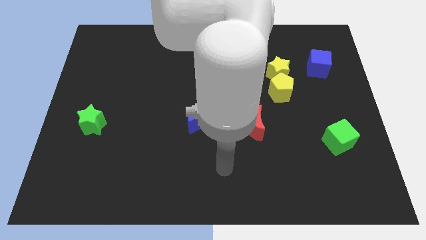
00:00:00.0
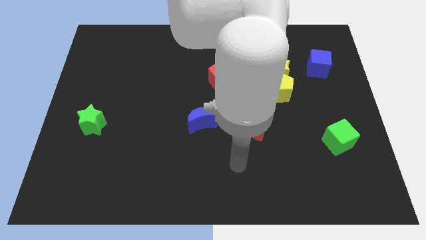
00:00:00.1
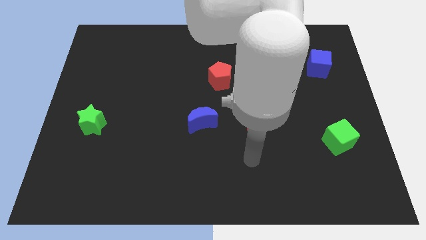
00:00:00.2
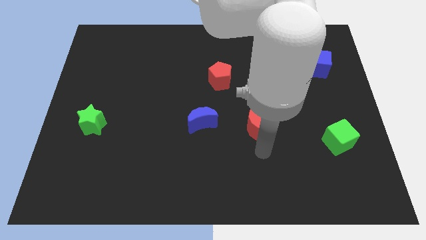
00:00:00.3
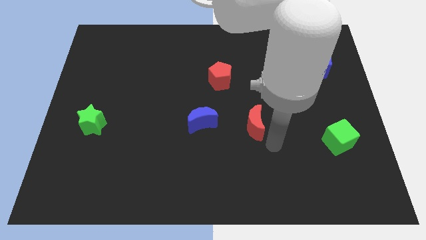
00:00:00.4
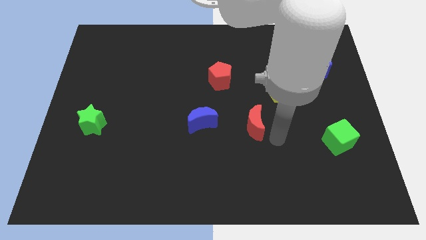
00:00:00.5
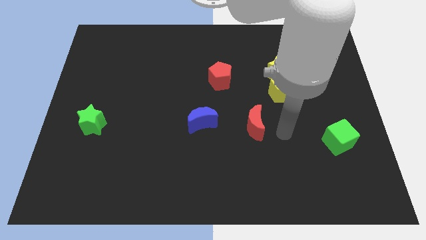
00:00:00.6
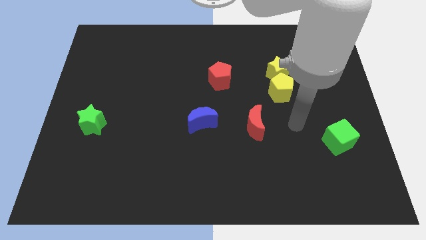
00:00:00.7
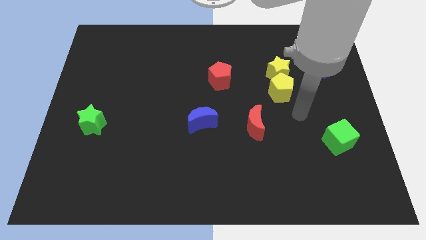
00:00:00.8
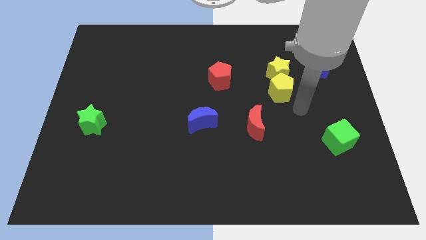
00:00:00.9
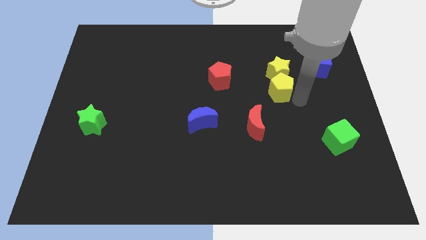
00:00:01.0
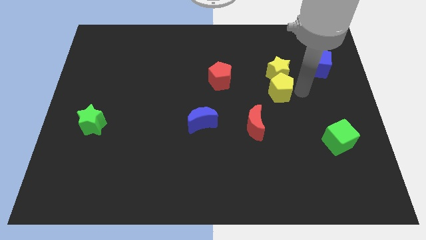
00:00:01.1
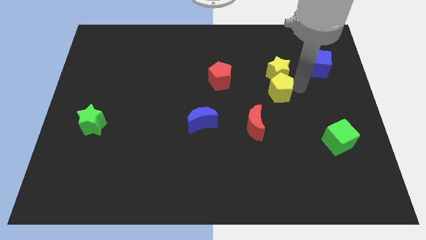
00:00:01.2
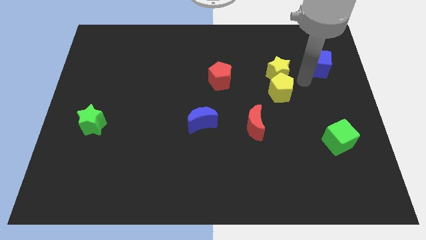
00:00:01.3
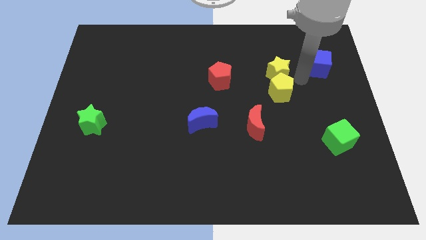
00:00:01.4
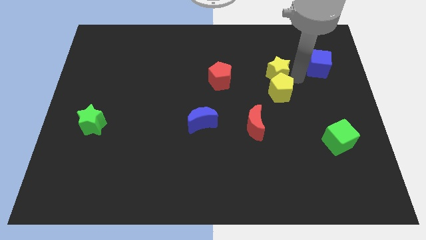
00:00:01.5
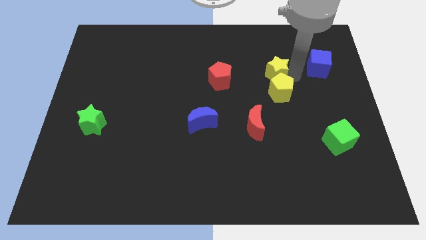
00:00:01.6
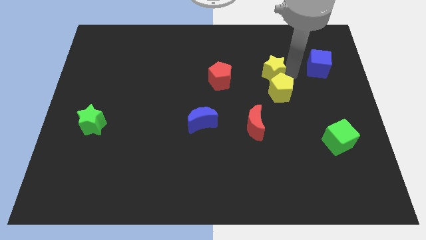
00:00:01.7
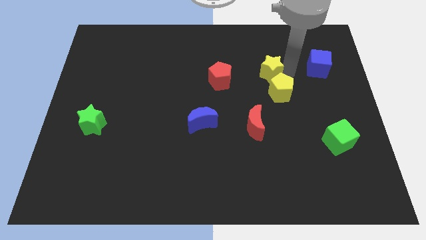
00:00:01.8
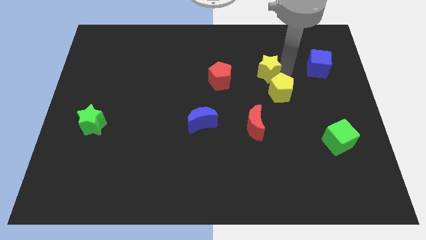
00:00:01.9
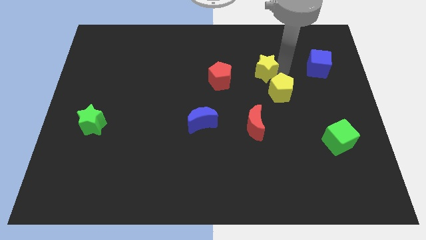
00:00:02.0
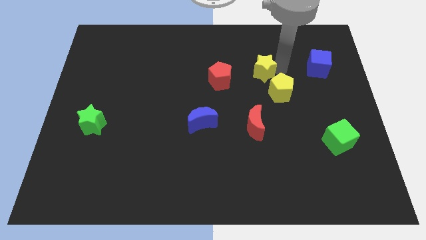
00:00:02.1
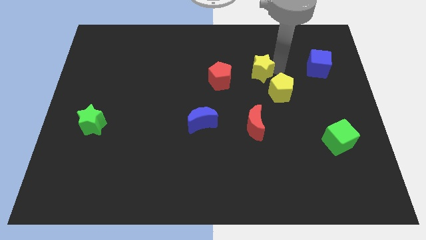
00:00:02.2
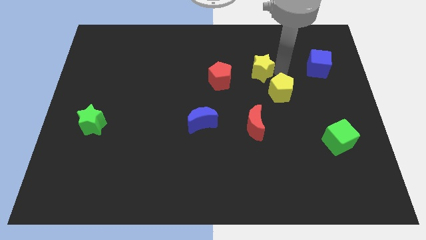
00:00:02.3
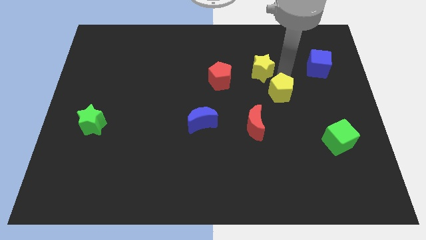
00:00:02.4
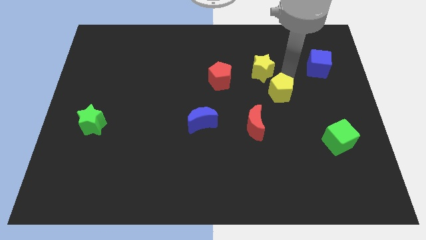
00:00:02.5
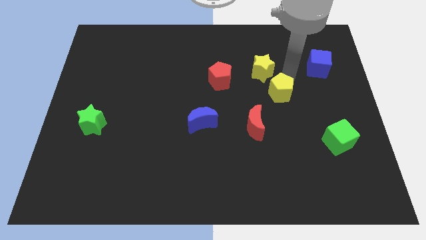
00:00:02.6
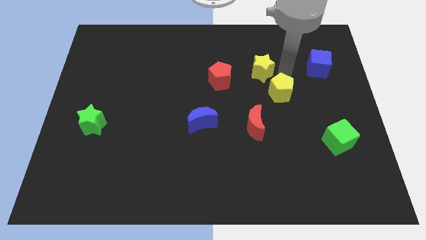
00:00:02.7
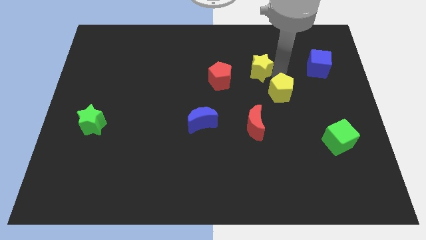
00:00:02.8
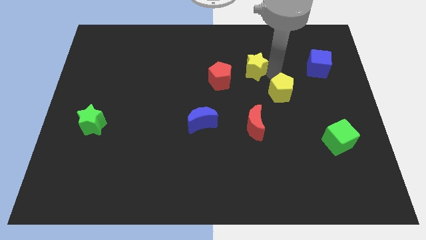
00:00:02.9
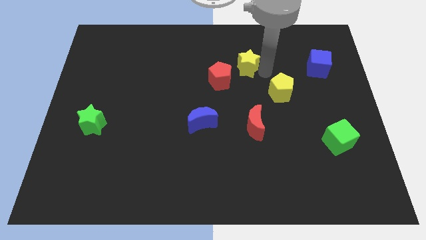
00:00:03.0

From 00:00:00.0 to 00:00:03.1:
slightly push the yellow star left

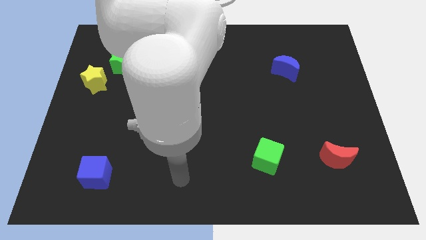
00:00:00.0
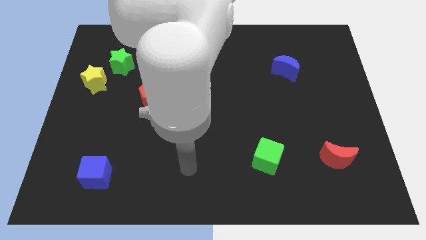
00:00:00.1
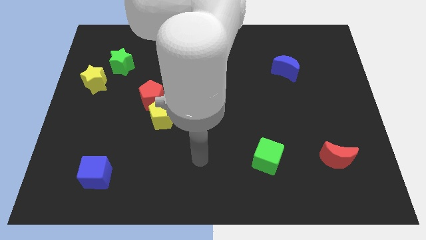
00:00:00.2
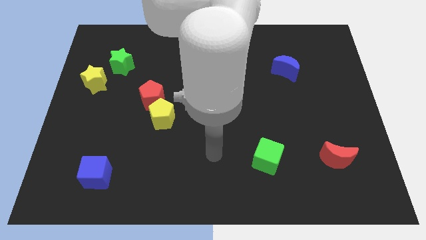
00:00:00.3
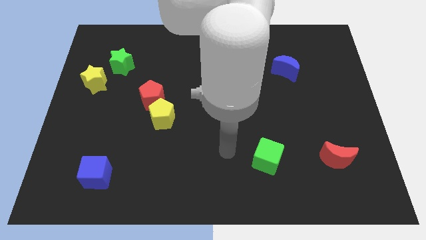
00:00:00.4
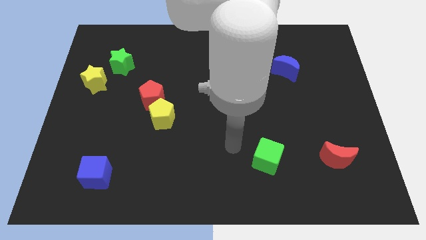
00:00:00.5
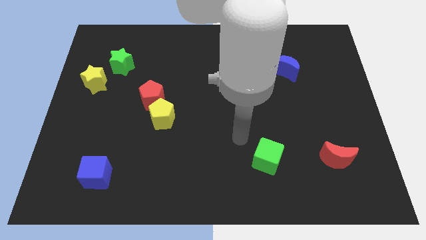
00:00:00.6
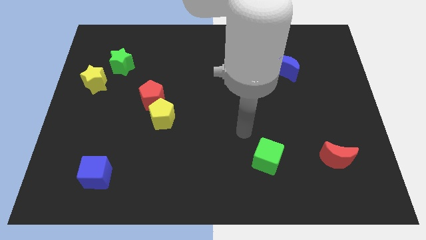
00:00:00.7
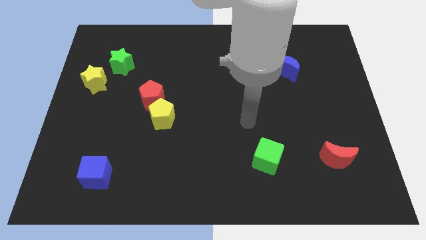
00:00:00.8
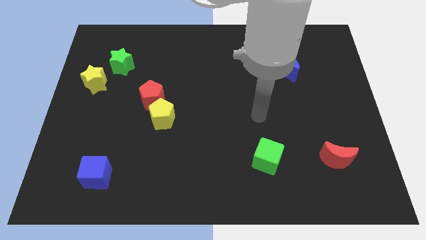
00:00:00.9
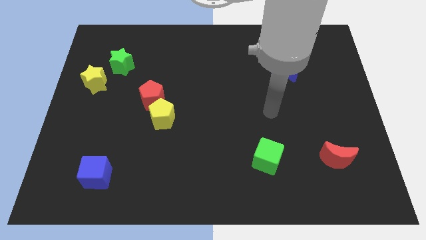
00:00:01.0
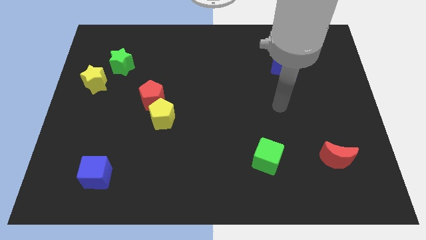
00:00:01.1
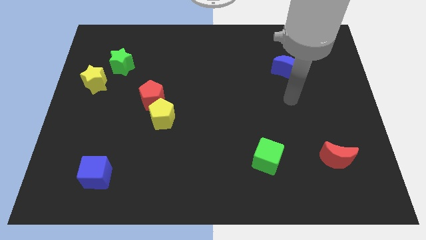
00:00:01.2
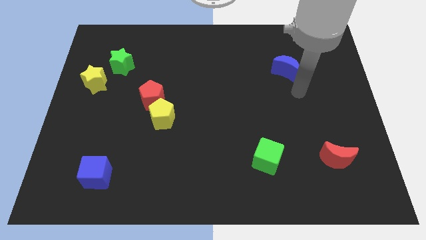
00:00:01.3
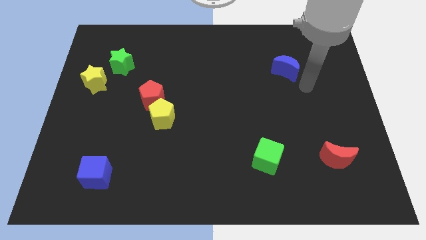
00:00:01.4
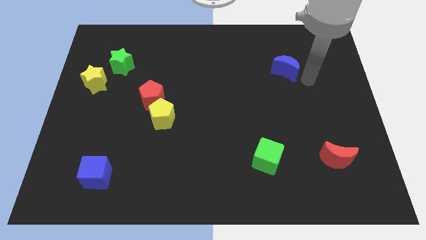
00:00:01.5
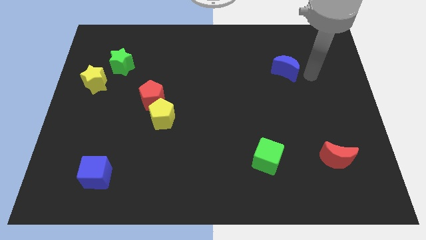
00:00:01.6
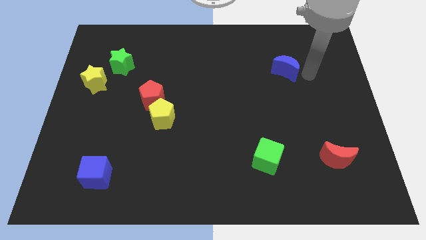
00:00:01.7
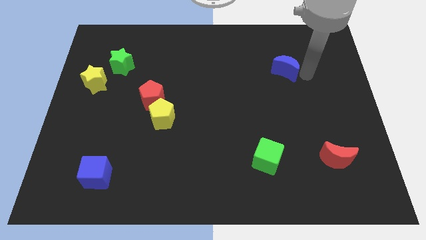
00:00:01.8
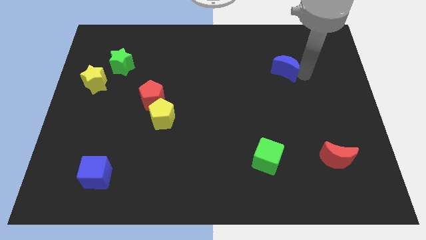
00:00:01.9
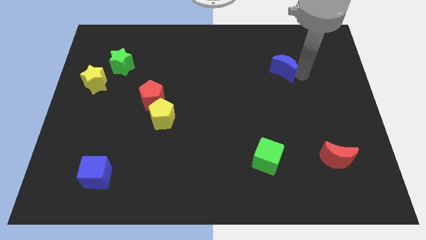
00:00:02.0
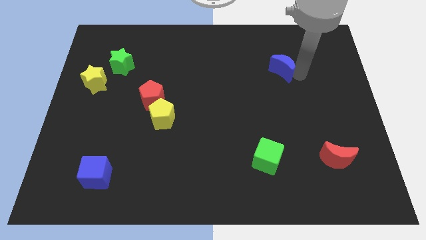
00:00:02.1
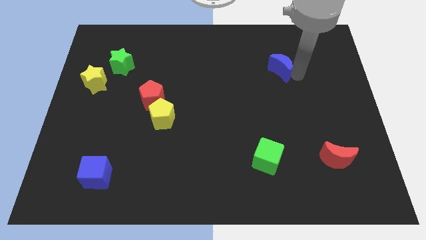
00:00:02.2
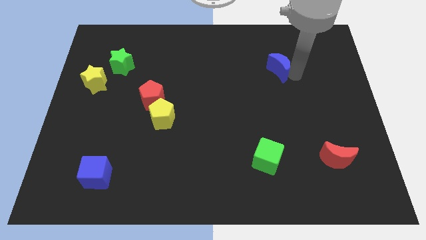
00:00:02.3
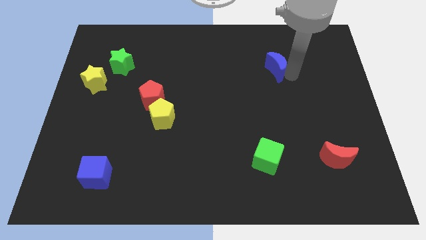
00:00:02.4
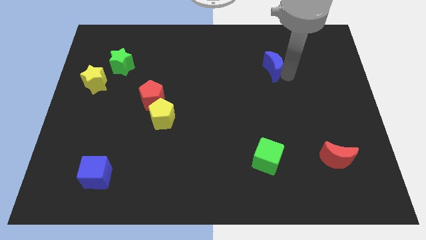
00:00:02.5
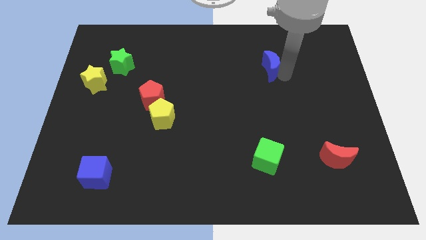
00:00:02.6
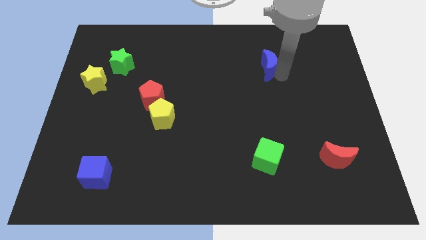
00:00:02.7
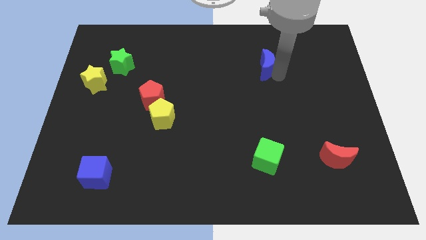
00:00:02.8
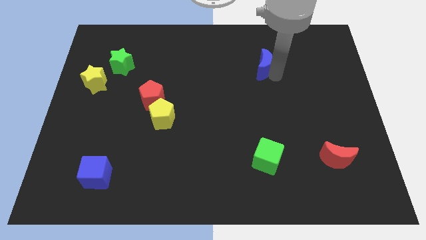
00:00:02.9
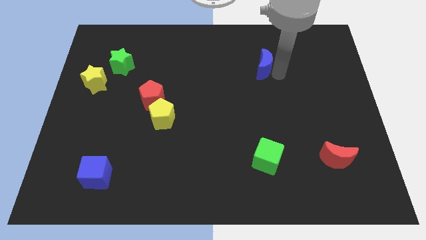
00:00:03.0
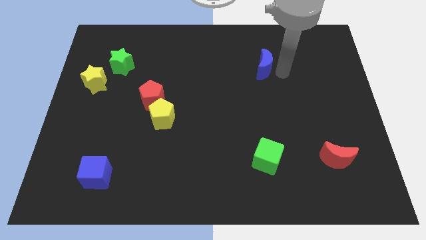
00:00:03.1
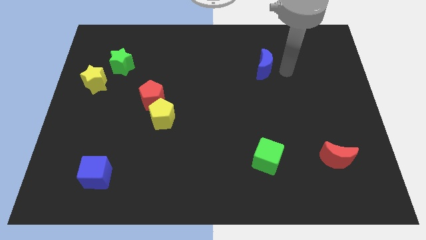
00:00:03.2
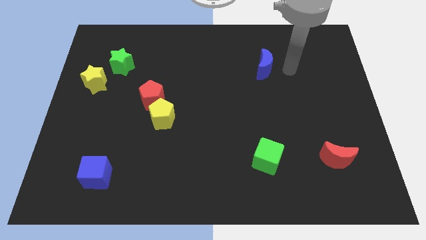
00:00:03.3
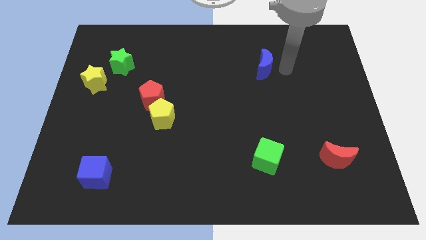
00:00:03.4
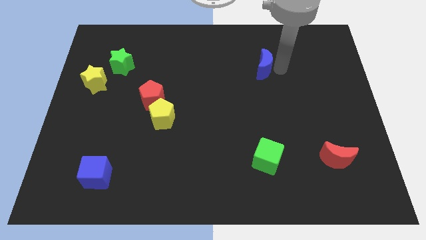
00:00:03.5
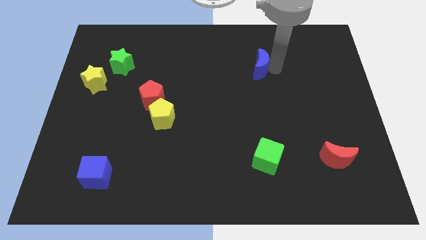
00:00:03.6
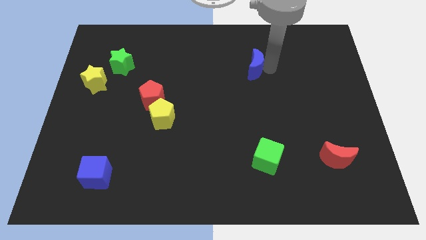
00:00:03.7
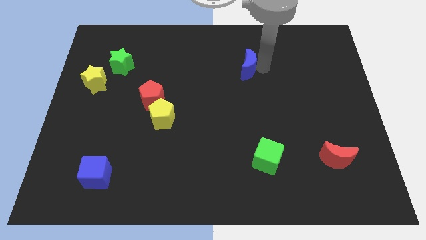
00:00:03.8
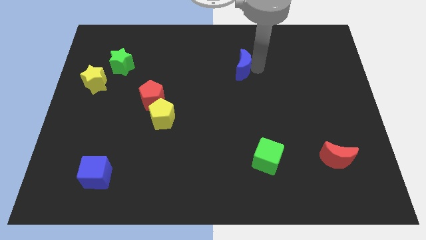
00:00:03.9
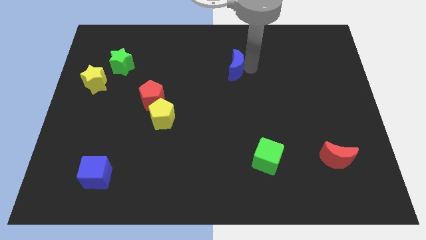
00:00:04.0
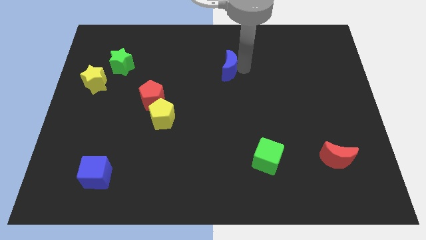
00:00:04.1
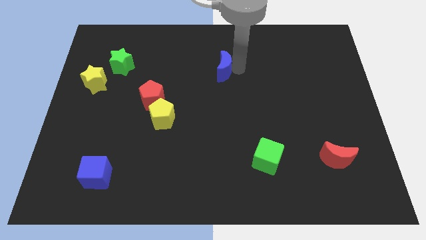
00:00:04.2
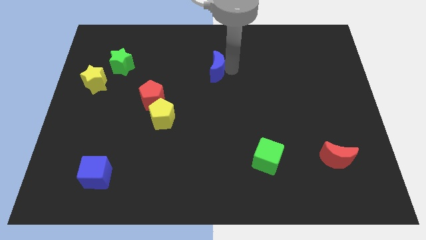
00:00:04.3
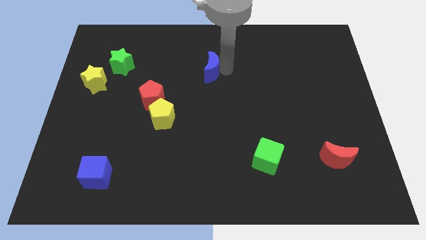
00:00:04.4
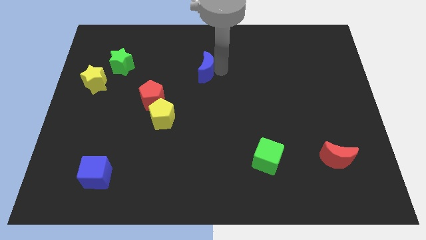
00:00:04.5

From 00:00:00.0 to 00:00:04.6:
slide the blue moon to the left

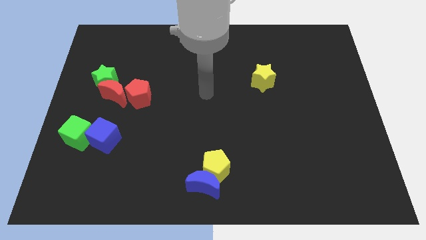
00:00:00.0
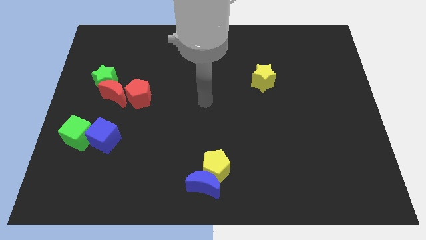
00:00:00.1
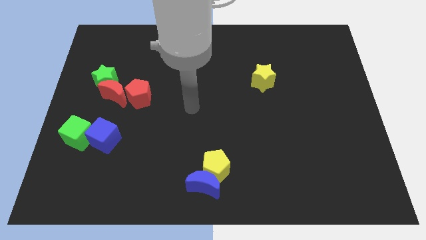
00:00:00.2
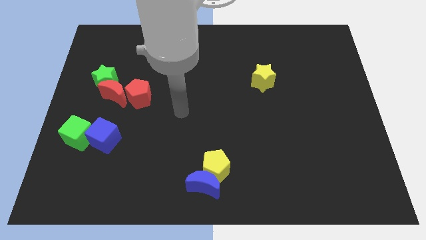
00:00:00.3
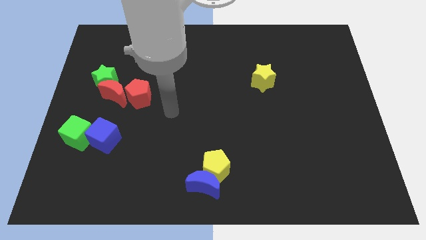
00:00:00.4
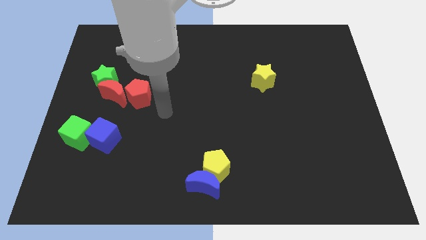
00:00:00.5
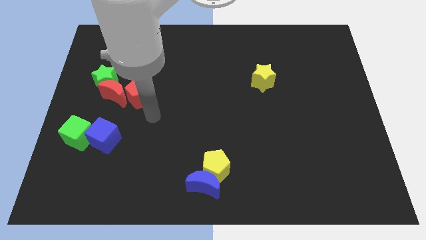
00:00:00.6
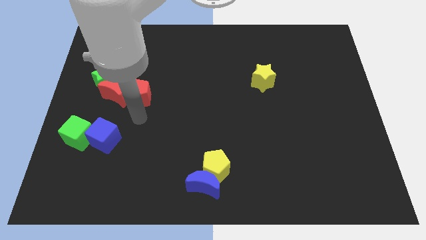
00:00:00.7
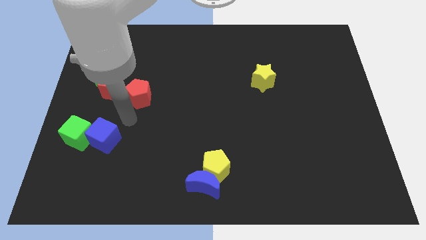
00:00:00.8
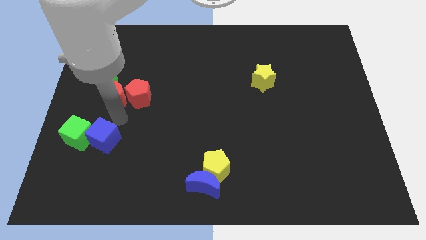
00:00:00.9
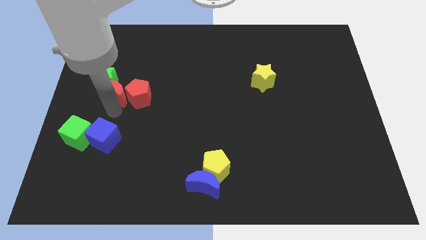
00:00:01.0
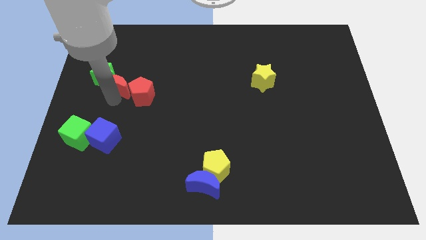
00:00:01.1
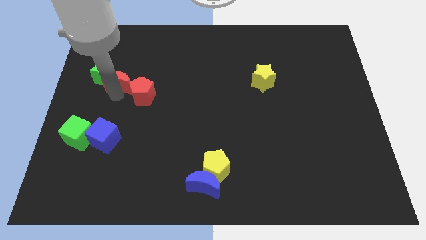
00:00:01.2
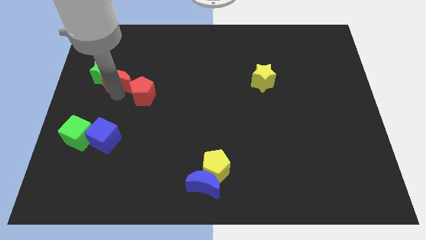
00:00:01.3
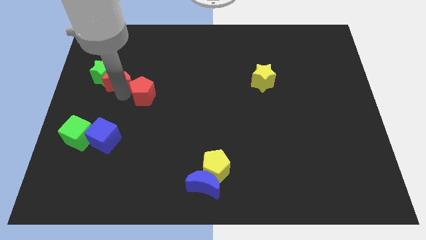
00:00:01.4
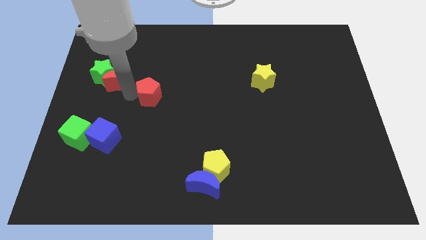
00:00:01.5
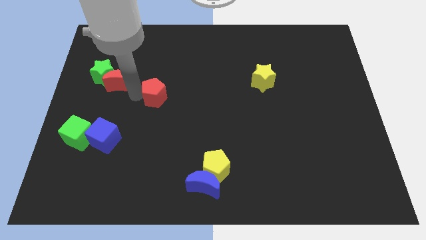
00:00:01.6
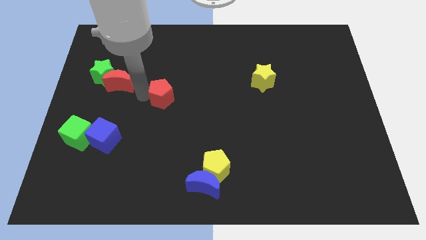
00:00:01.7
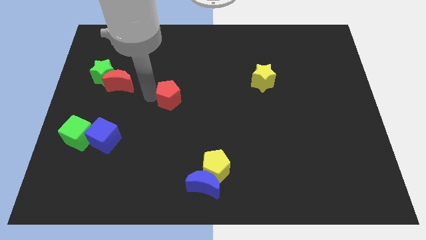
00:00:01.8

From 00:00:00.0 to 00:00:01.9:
slightly slide the red pentagon right
